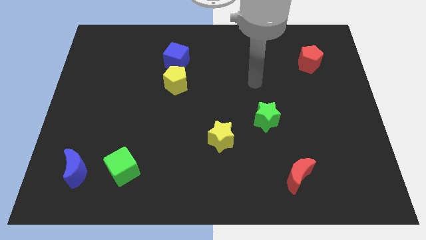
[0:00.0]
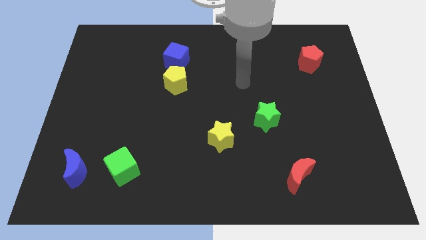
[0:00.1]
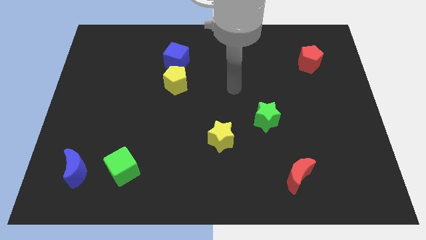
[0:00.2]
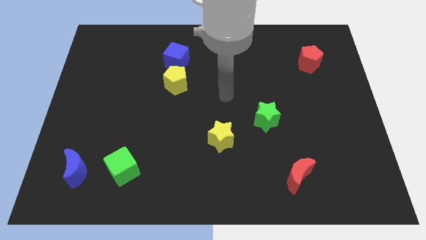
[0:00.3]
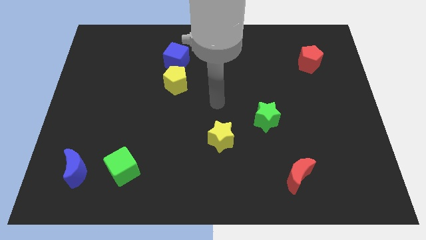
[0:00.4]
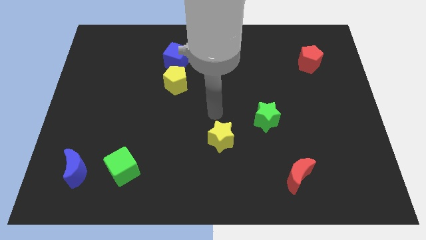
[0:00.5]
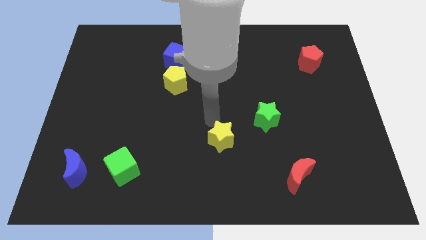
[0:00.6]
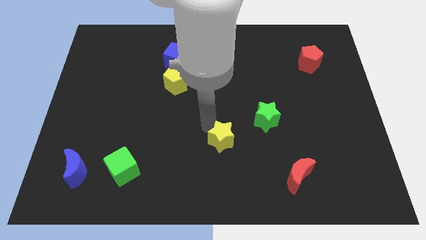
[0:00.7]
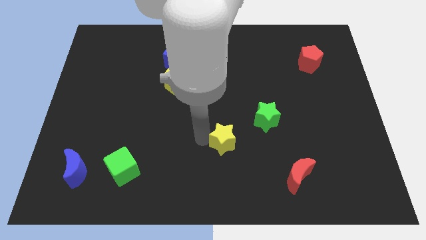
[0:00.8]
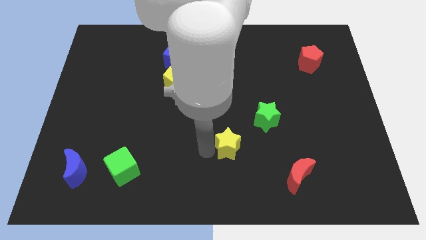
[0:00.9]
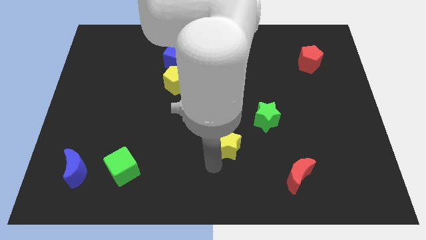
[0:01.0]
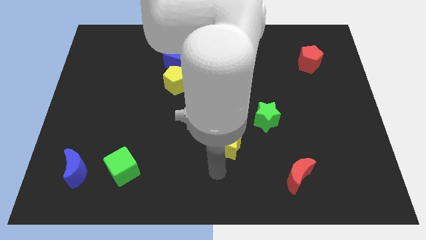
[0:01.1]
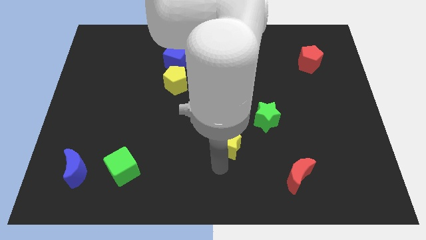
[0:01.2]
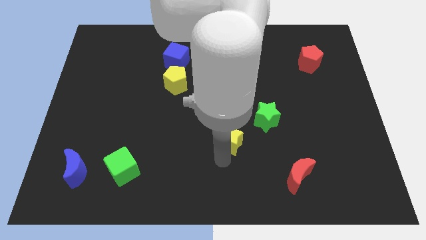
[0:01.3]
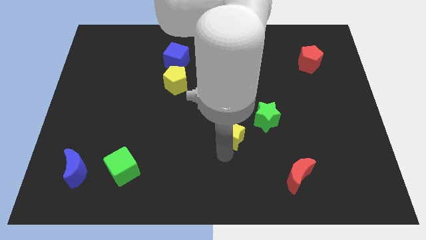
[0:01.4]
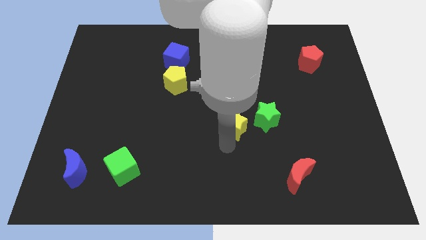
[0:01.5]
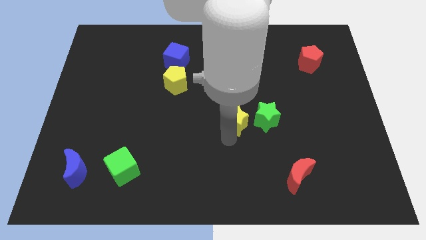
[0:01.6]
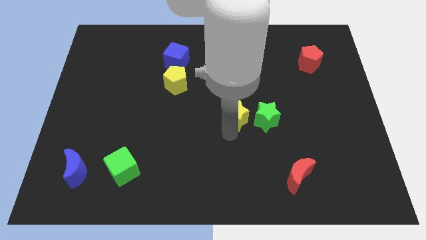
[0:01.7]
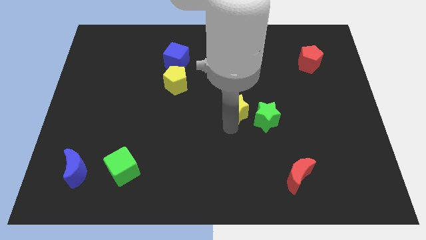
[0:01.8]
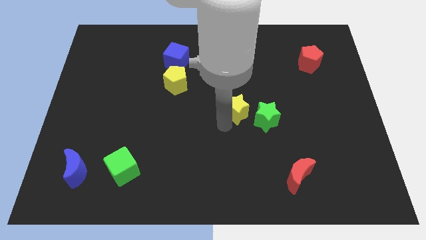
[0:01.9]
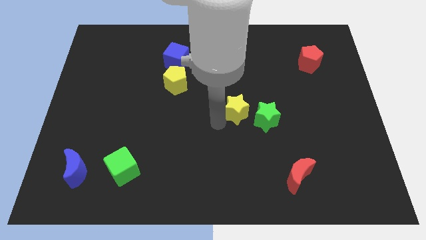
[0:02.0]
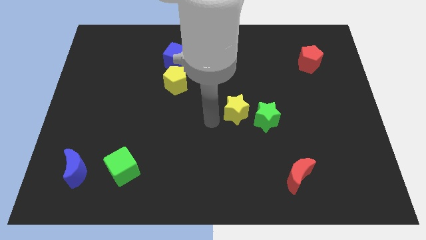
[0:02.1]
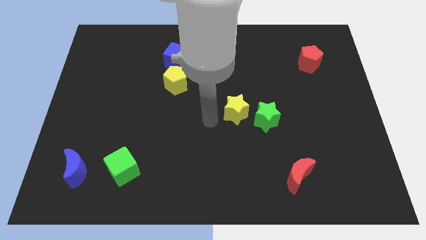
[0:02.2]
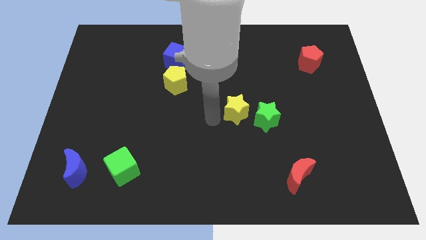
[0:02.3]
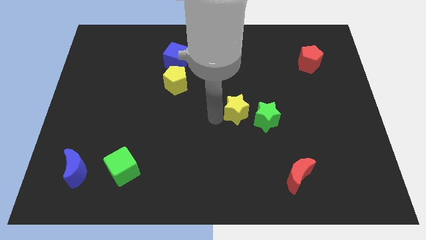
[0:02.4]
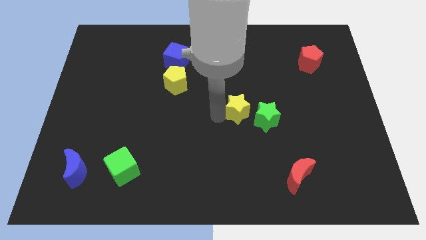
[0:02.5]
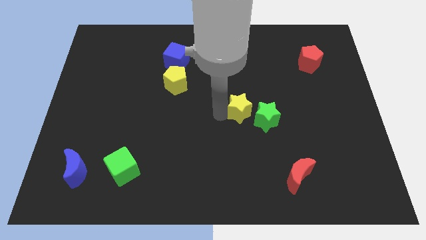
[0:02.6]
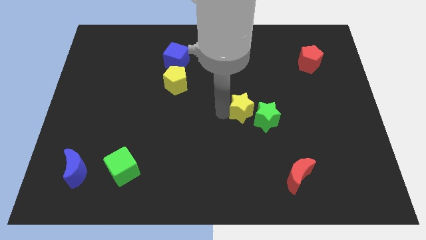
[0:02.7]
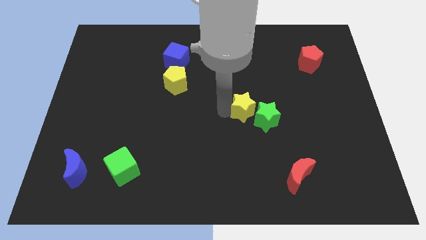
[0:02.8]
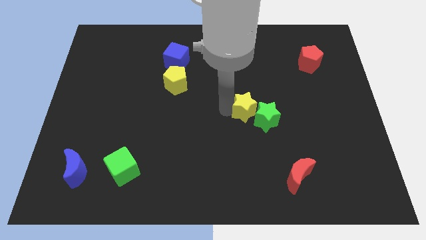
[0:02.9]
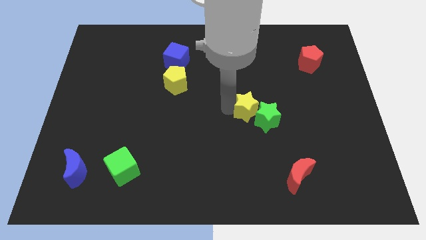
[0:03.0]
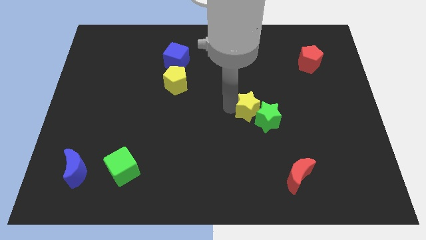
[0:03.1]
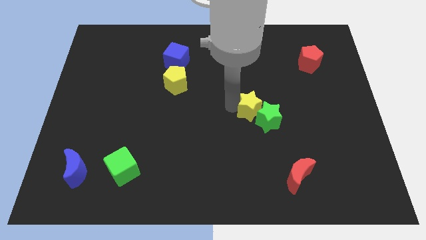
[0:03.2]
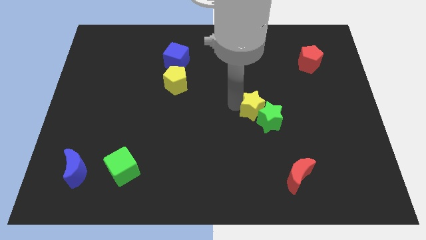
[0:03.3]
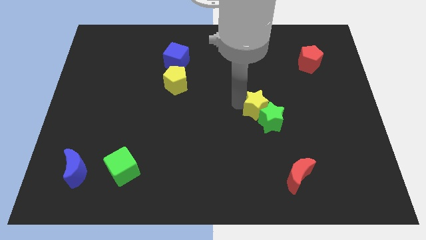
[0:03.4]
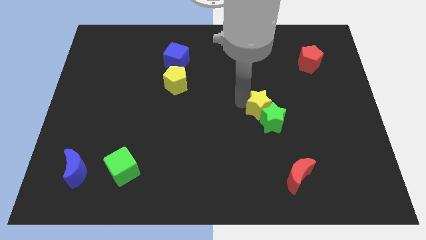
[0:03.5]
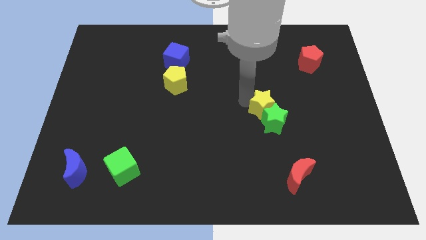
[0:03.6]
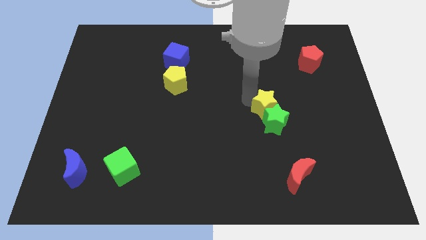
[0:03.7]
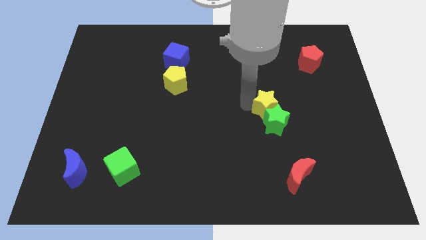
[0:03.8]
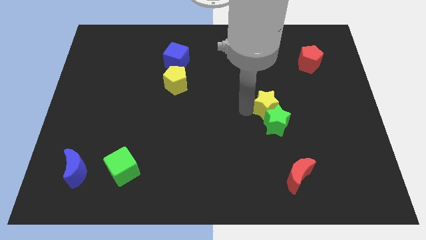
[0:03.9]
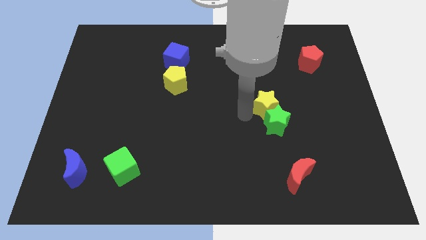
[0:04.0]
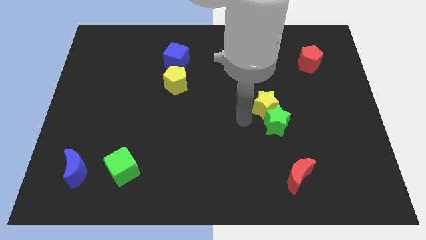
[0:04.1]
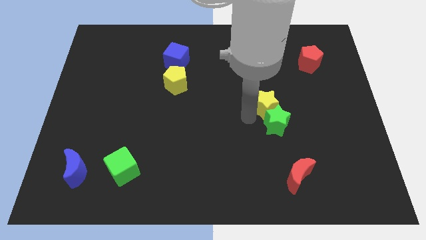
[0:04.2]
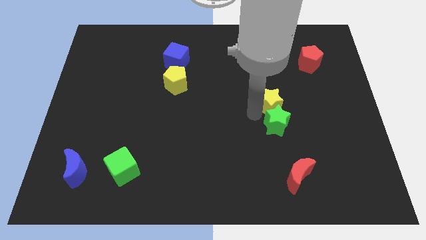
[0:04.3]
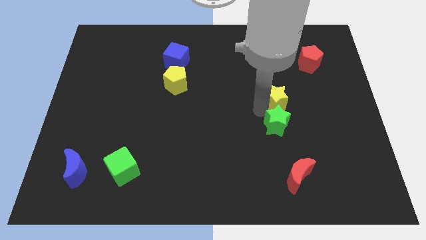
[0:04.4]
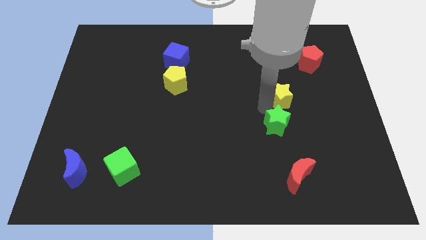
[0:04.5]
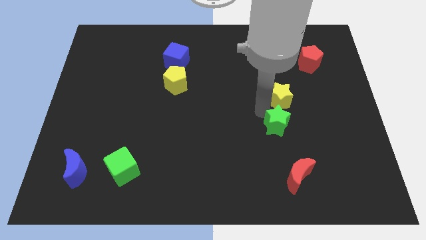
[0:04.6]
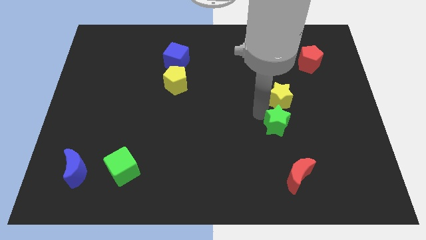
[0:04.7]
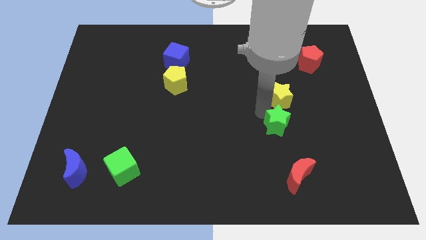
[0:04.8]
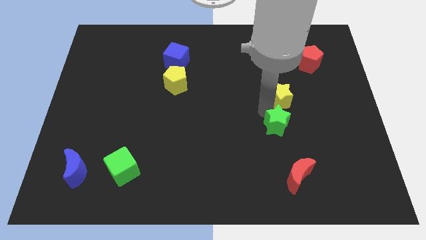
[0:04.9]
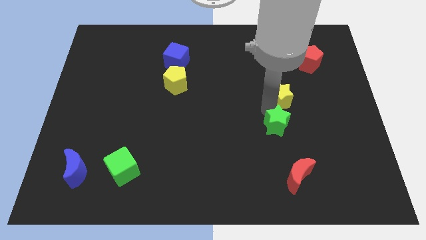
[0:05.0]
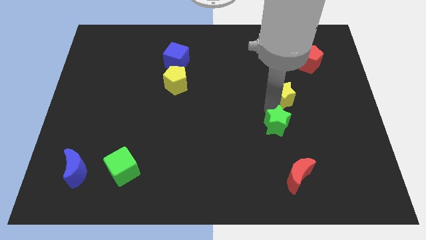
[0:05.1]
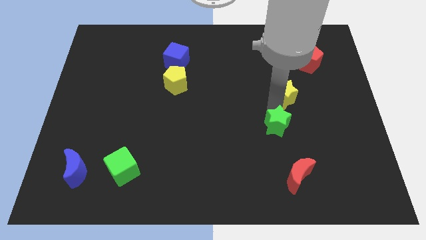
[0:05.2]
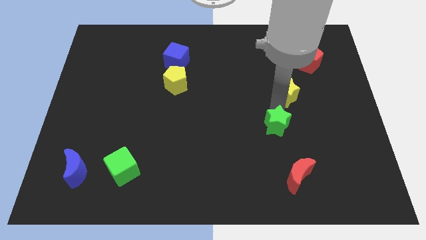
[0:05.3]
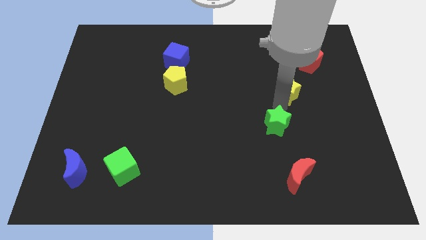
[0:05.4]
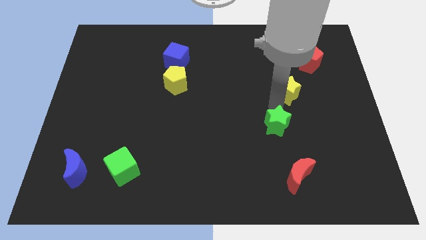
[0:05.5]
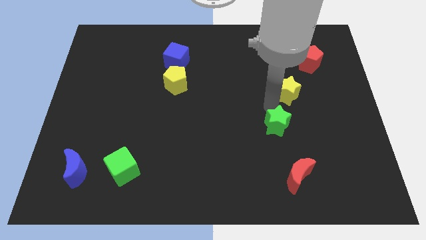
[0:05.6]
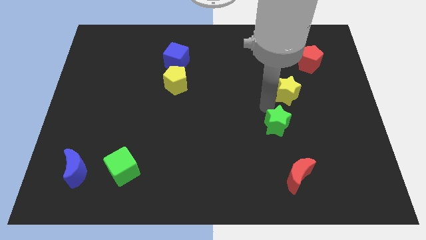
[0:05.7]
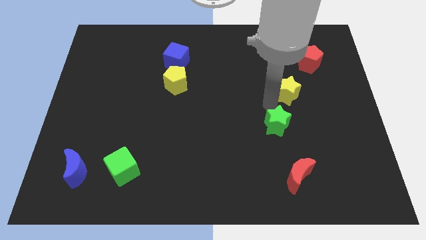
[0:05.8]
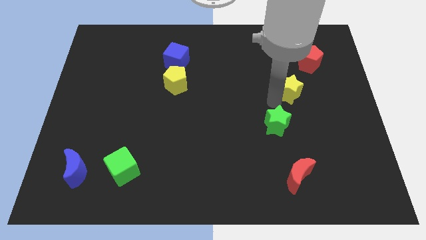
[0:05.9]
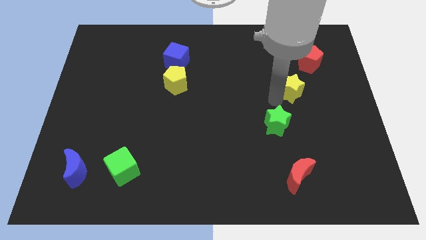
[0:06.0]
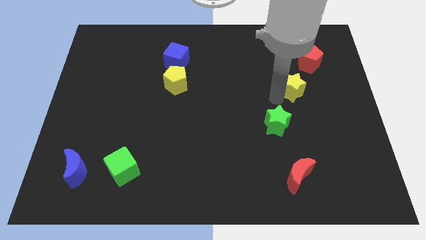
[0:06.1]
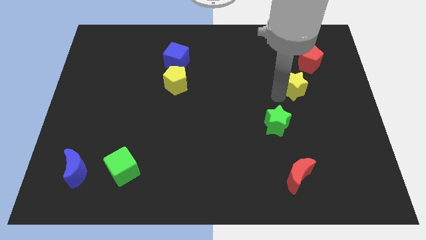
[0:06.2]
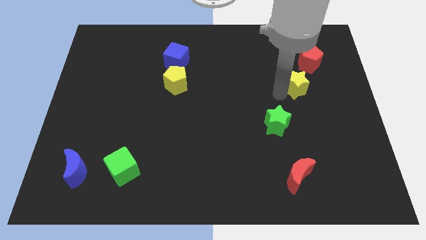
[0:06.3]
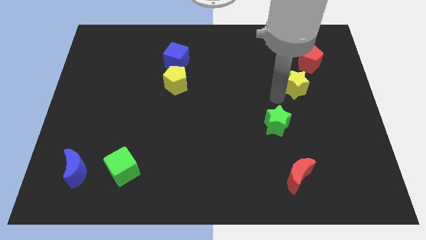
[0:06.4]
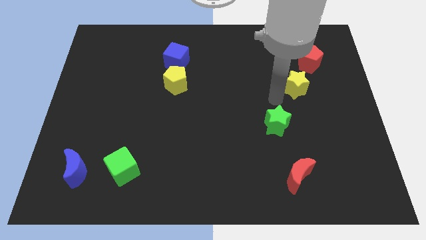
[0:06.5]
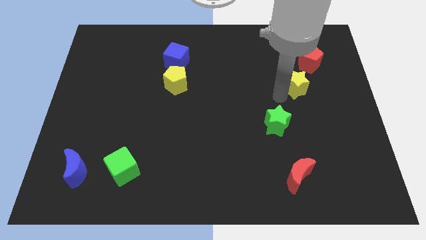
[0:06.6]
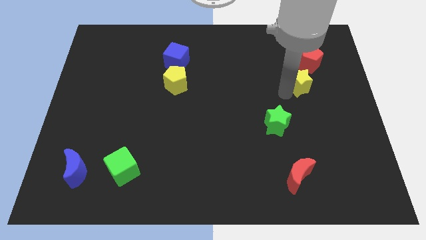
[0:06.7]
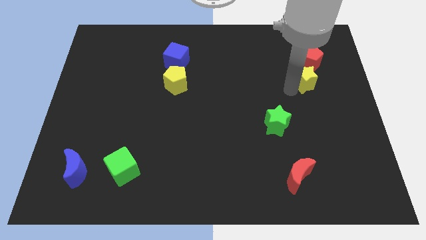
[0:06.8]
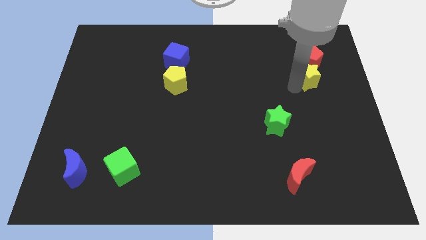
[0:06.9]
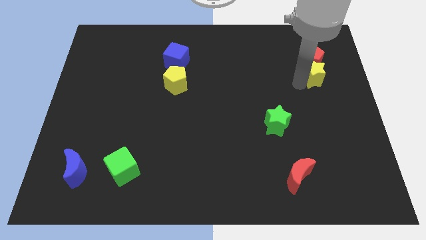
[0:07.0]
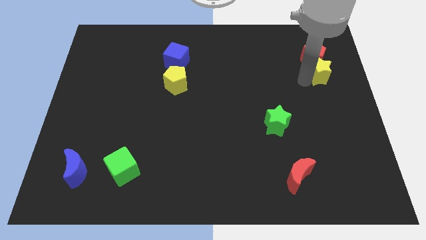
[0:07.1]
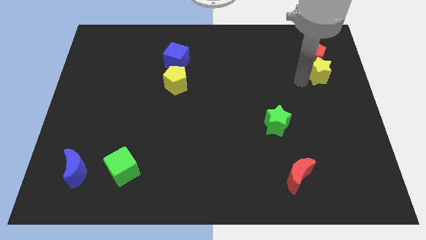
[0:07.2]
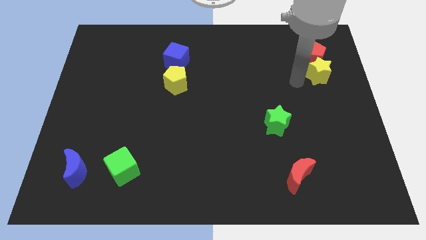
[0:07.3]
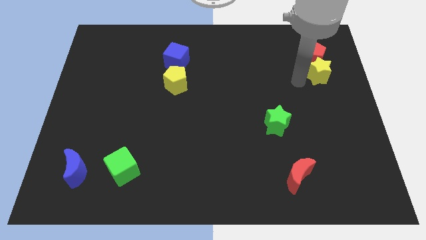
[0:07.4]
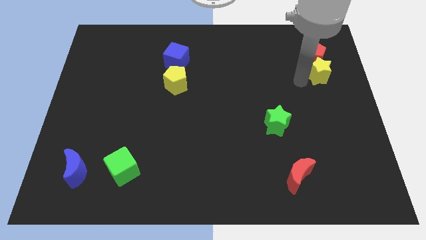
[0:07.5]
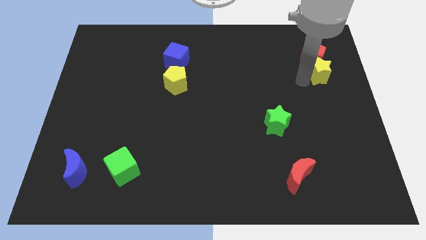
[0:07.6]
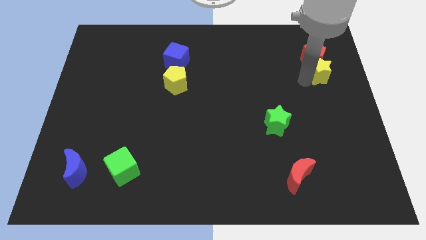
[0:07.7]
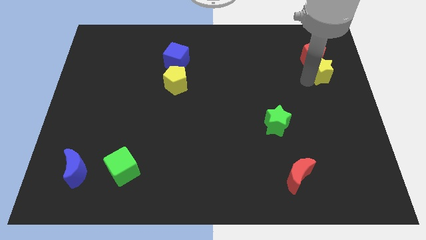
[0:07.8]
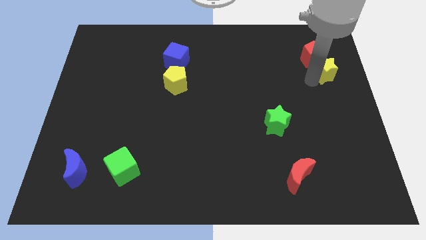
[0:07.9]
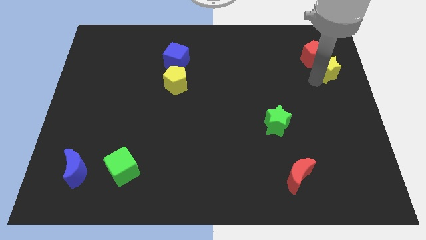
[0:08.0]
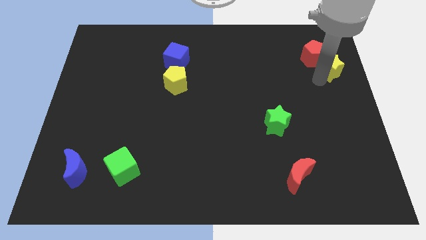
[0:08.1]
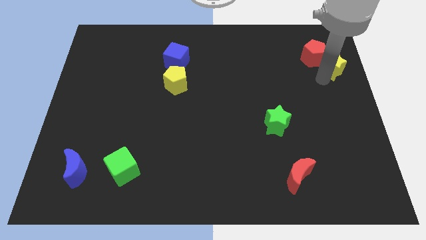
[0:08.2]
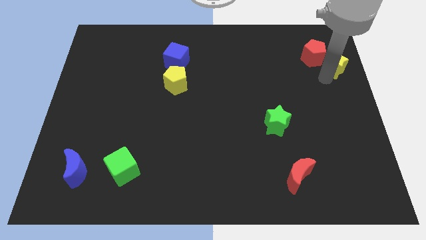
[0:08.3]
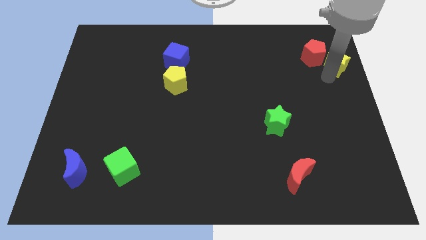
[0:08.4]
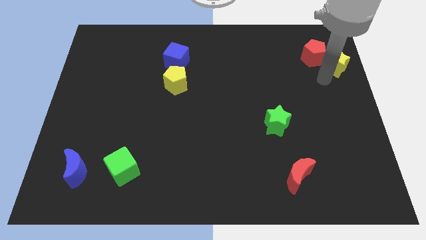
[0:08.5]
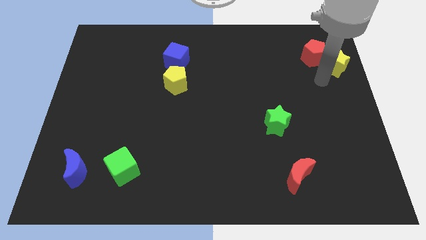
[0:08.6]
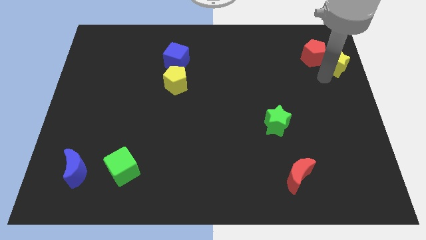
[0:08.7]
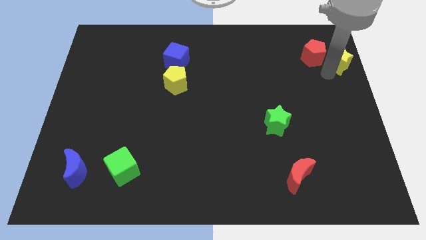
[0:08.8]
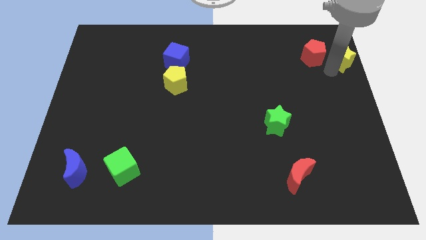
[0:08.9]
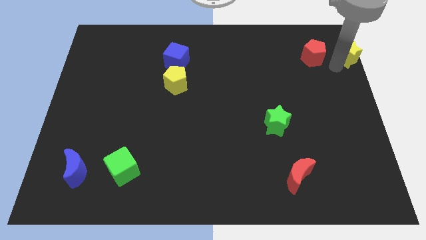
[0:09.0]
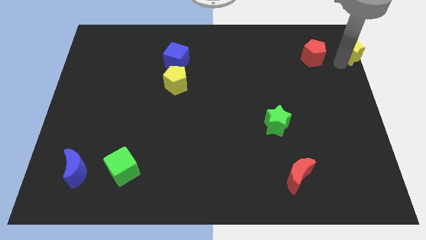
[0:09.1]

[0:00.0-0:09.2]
slide the yellow star to the top right corner
